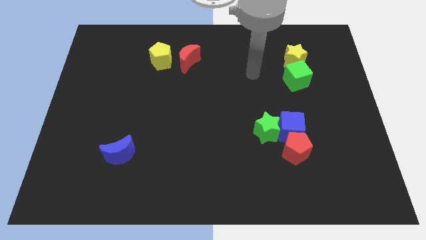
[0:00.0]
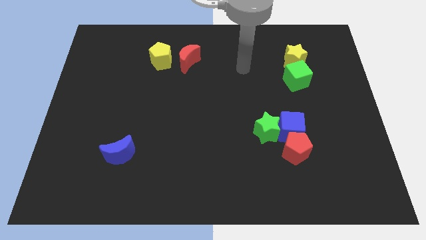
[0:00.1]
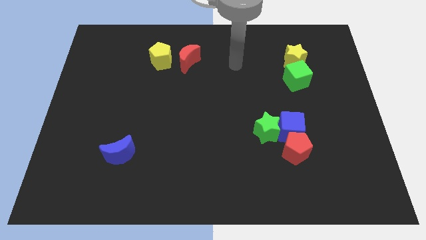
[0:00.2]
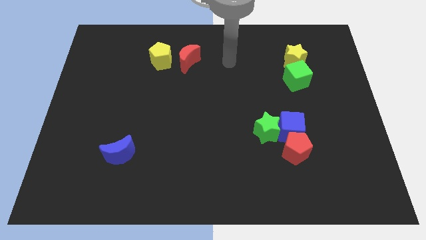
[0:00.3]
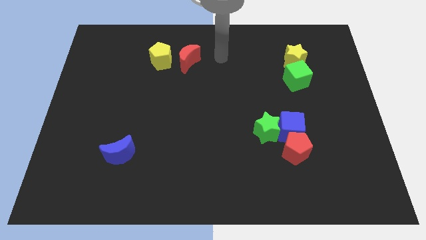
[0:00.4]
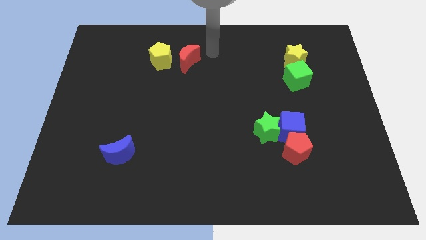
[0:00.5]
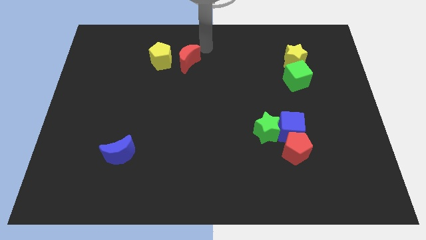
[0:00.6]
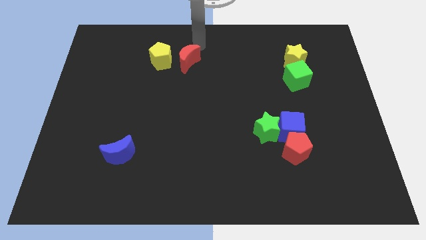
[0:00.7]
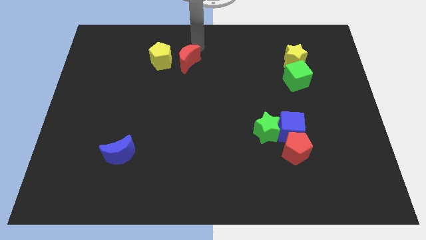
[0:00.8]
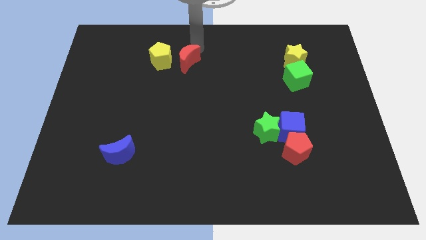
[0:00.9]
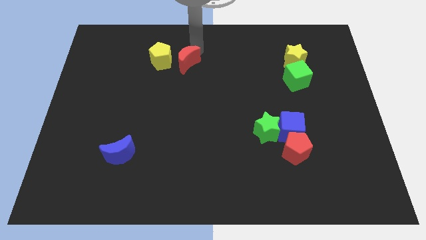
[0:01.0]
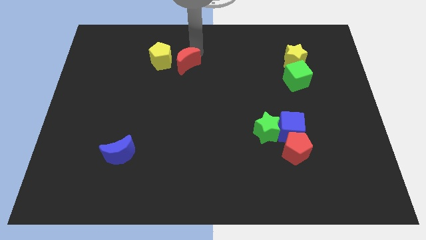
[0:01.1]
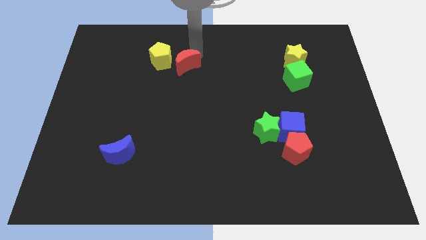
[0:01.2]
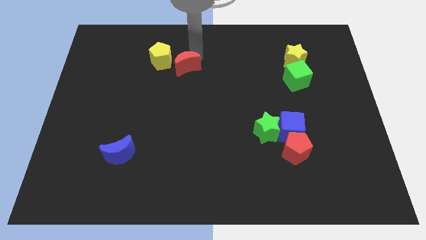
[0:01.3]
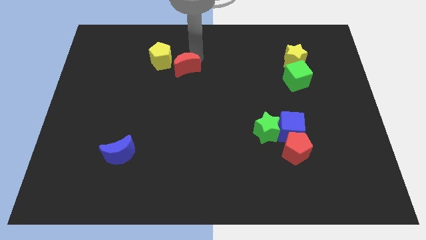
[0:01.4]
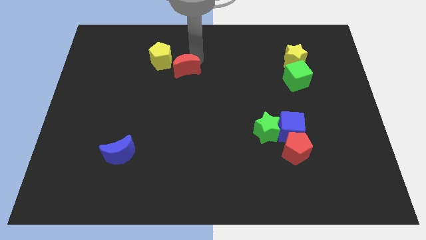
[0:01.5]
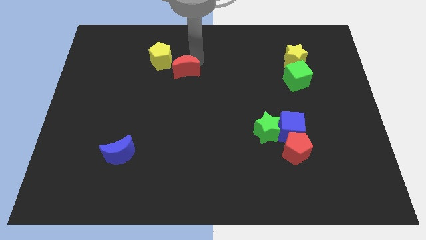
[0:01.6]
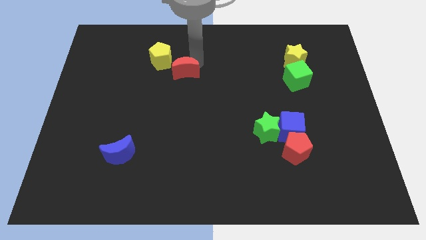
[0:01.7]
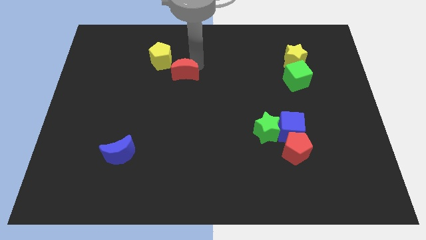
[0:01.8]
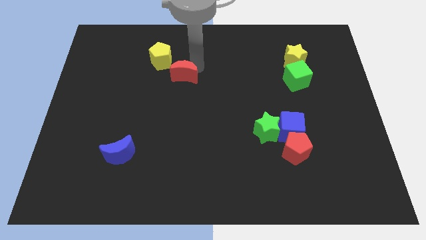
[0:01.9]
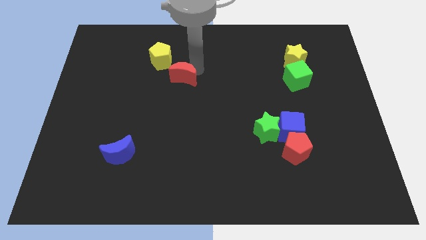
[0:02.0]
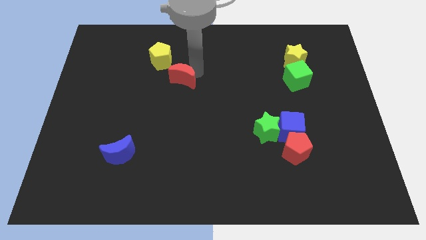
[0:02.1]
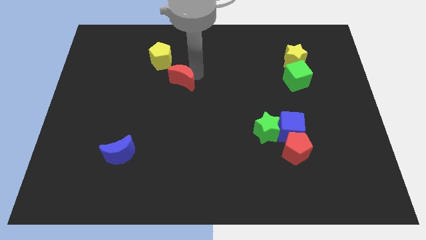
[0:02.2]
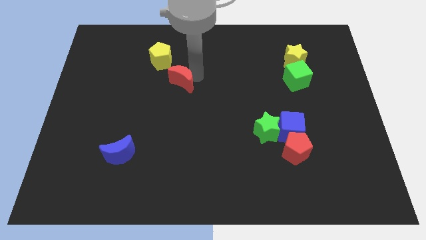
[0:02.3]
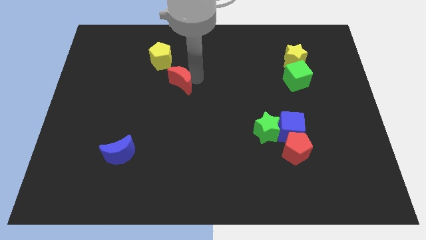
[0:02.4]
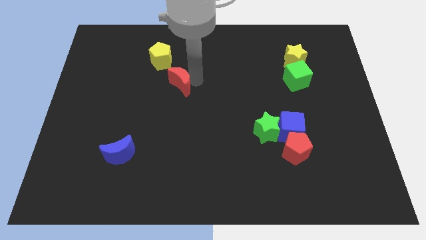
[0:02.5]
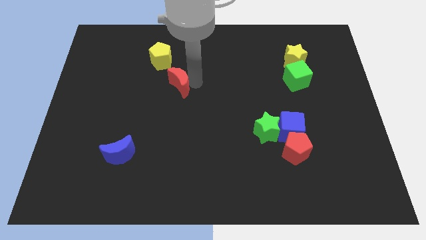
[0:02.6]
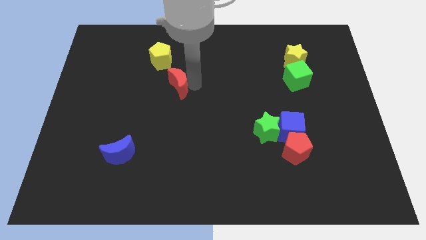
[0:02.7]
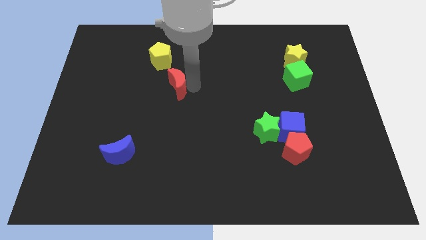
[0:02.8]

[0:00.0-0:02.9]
move the red moon a bit downwards and left

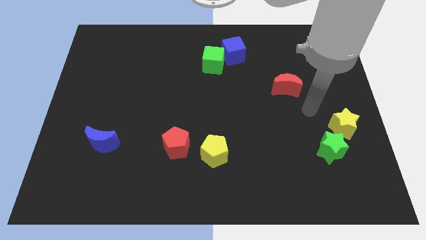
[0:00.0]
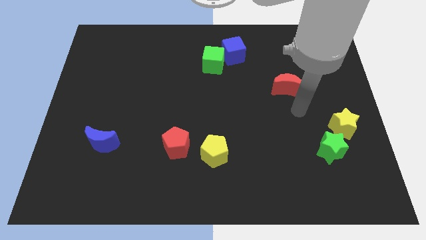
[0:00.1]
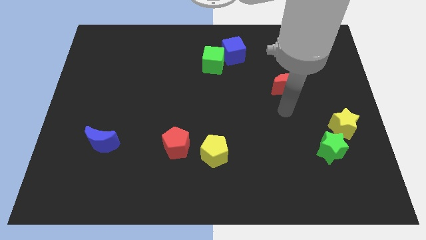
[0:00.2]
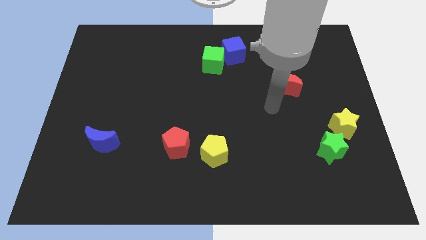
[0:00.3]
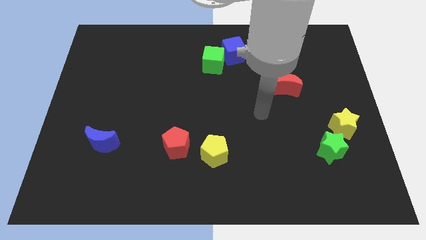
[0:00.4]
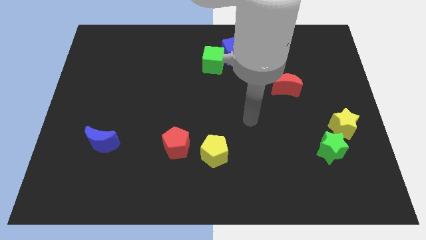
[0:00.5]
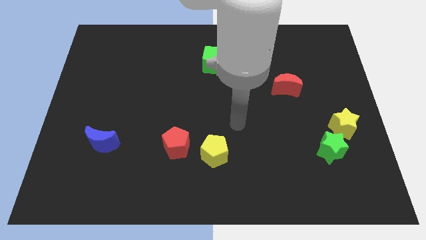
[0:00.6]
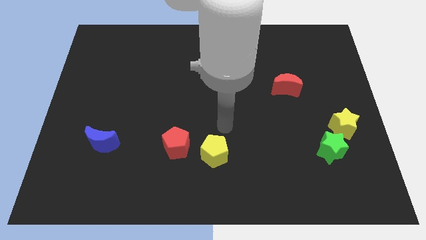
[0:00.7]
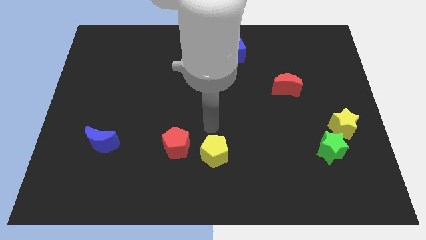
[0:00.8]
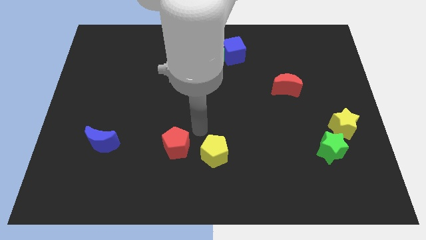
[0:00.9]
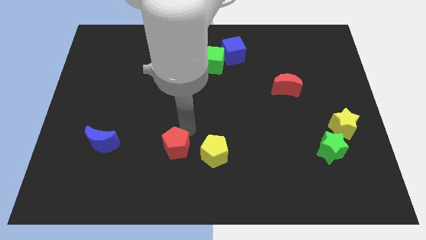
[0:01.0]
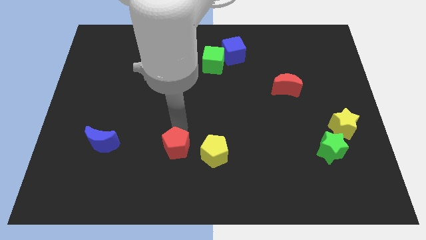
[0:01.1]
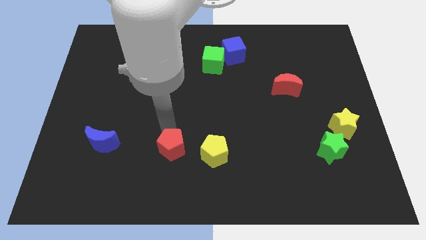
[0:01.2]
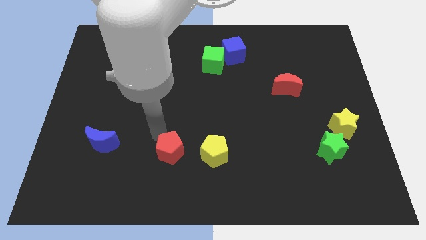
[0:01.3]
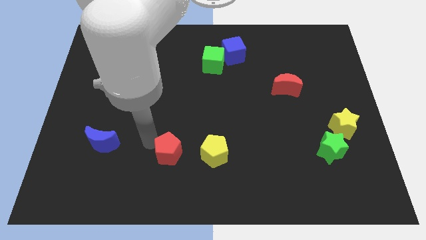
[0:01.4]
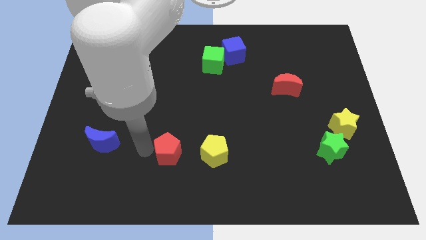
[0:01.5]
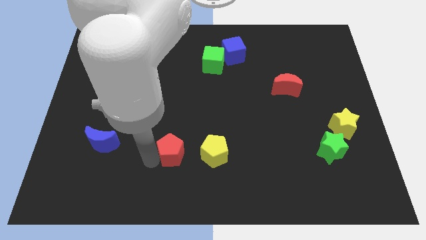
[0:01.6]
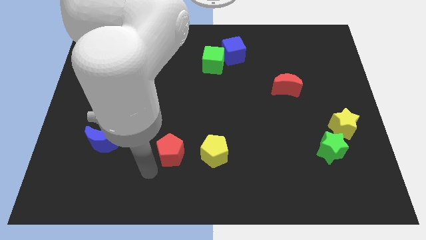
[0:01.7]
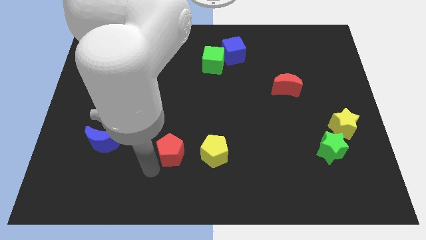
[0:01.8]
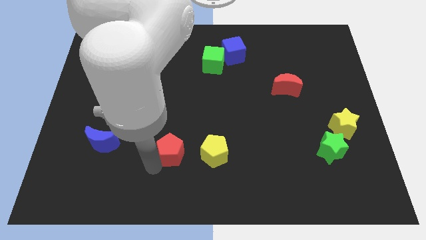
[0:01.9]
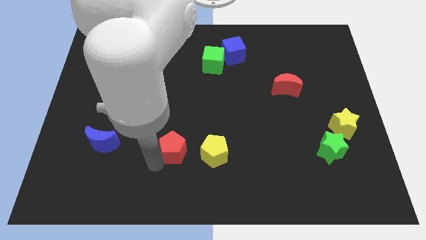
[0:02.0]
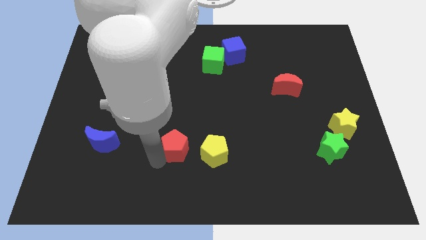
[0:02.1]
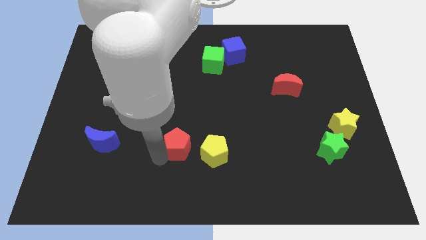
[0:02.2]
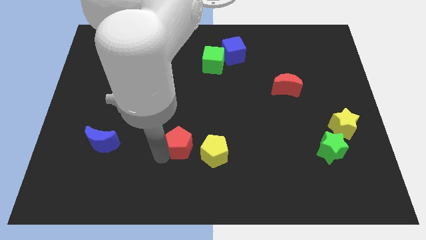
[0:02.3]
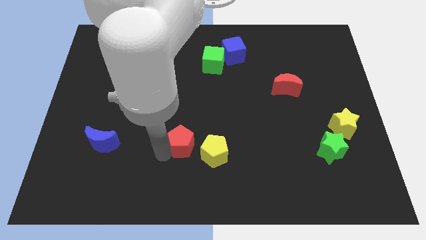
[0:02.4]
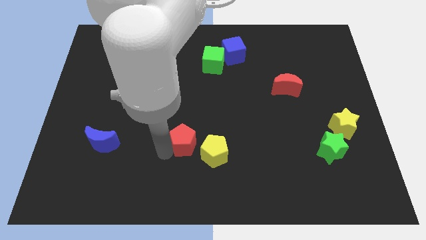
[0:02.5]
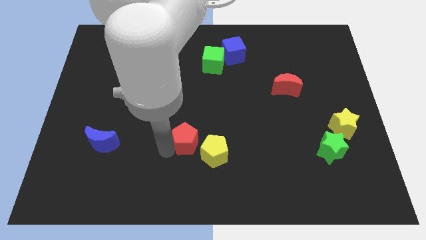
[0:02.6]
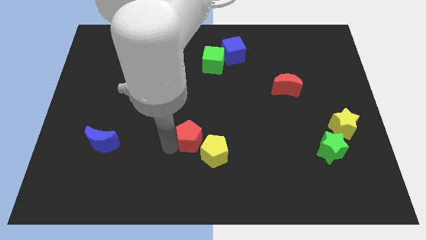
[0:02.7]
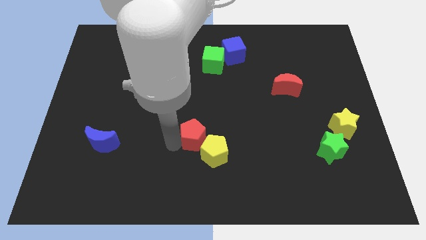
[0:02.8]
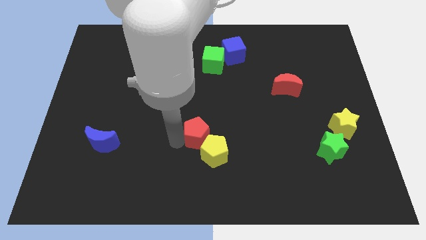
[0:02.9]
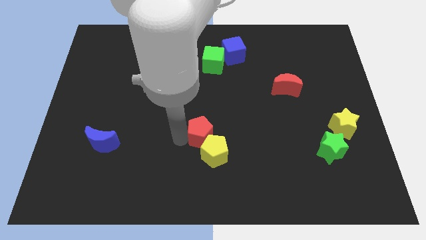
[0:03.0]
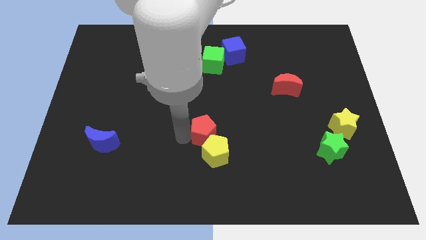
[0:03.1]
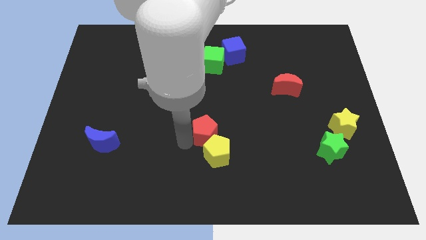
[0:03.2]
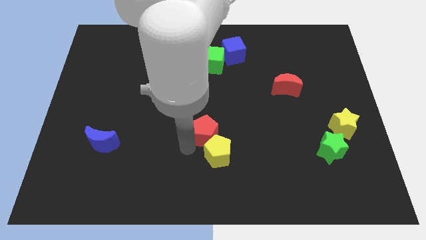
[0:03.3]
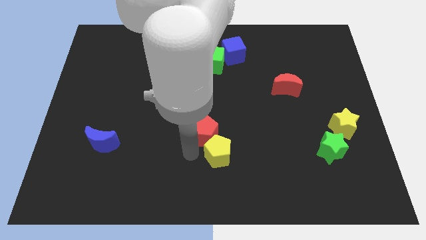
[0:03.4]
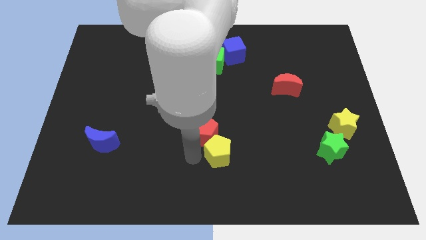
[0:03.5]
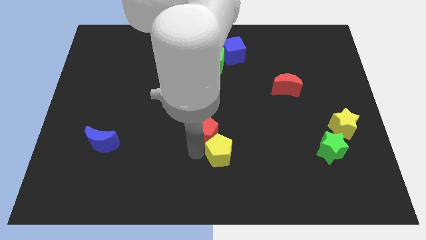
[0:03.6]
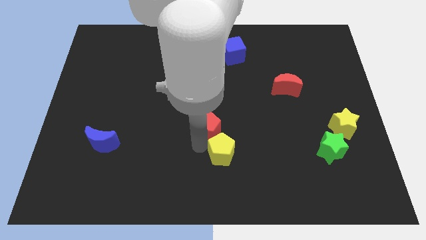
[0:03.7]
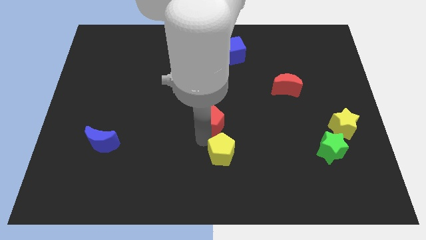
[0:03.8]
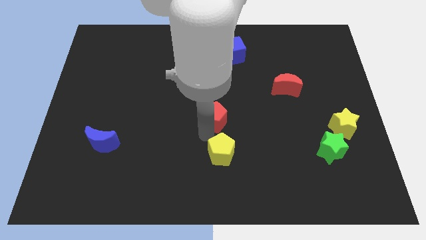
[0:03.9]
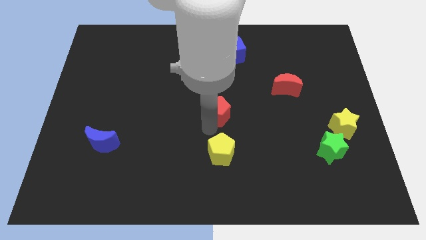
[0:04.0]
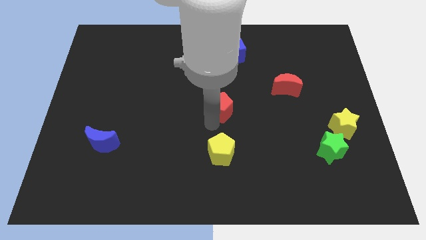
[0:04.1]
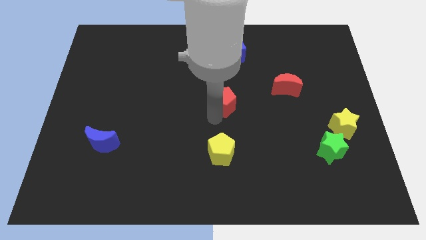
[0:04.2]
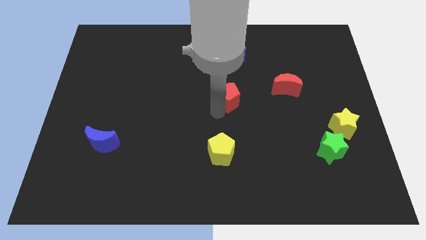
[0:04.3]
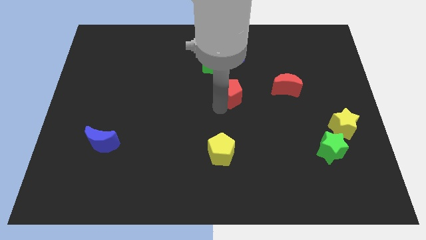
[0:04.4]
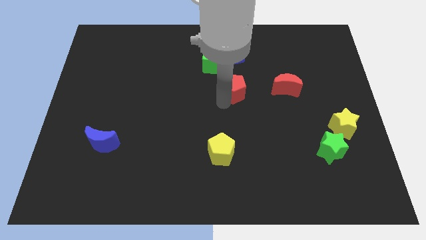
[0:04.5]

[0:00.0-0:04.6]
slide the red pentagon diagonally upwards and to the right

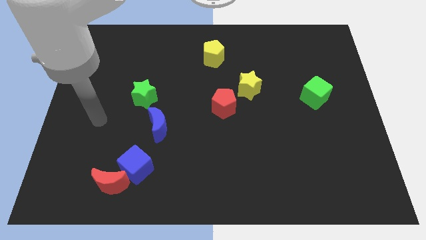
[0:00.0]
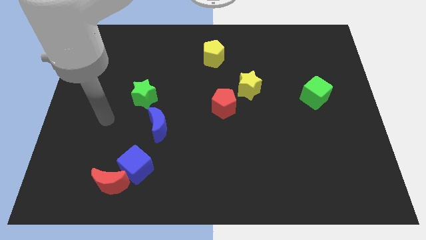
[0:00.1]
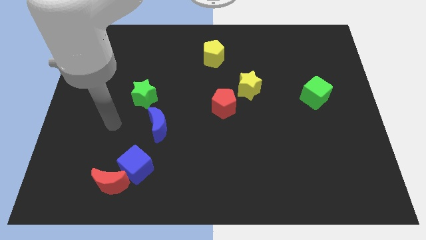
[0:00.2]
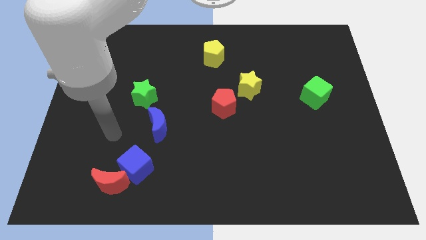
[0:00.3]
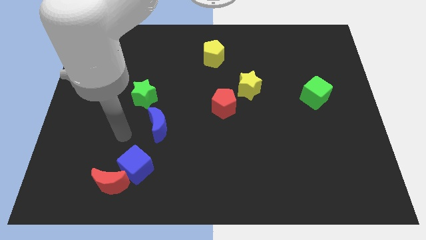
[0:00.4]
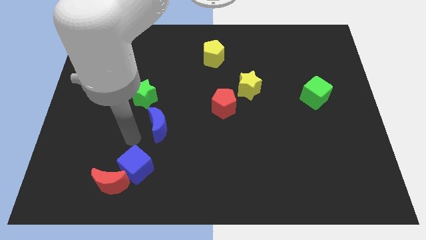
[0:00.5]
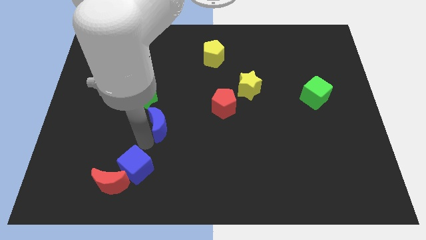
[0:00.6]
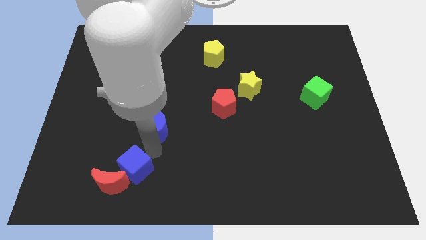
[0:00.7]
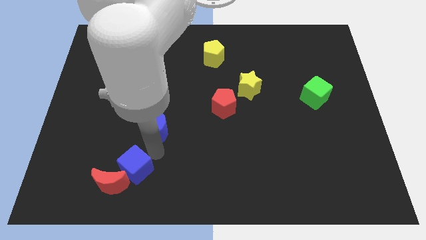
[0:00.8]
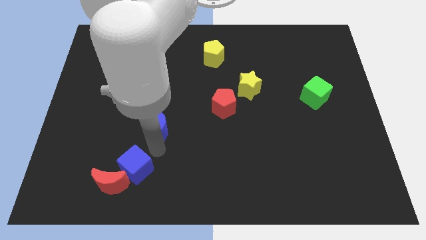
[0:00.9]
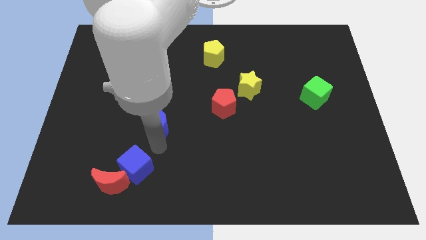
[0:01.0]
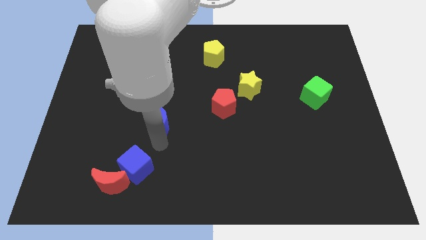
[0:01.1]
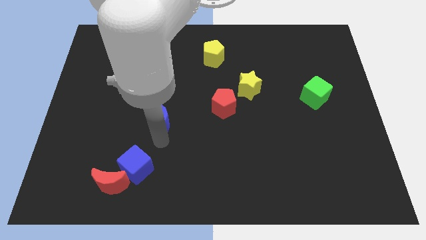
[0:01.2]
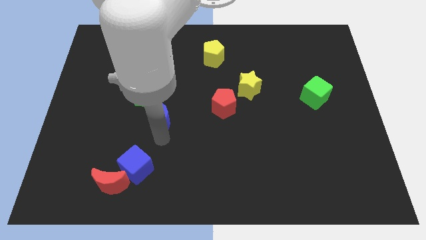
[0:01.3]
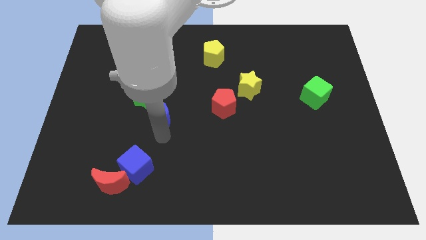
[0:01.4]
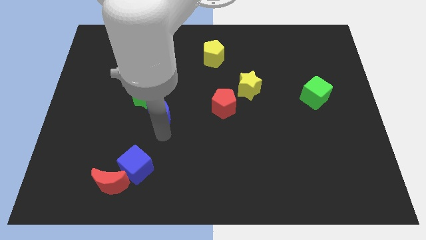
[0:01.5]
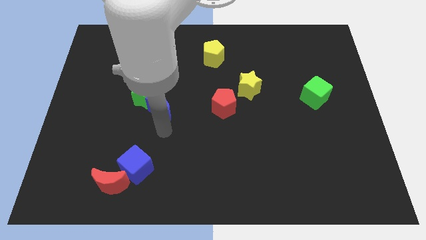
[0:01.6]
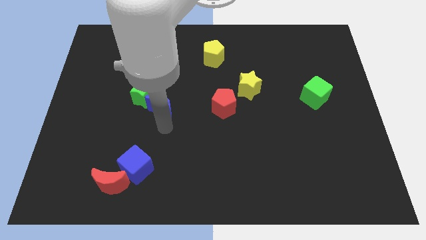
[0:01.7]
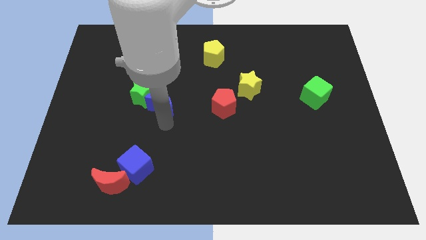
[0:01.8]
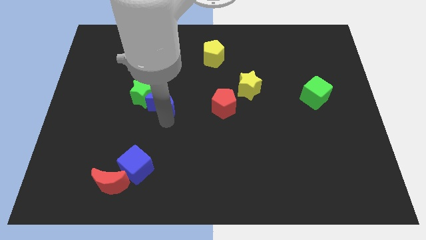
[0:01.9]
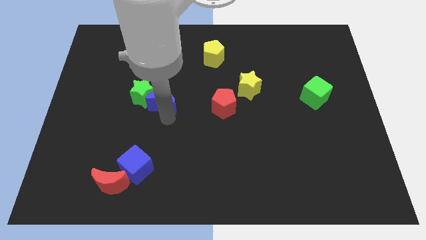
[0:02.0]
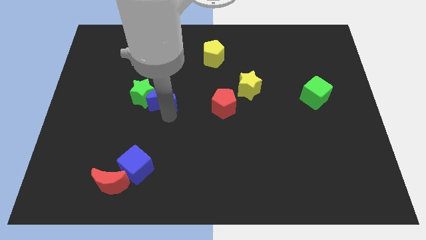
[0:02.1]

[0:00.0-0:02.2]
slide the blue moon a little up
